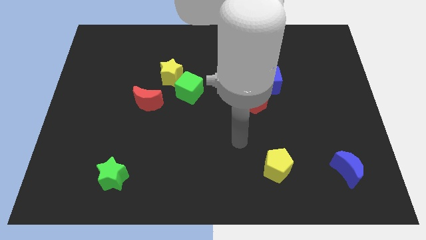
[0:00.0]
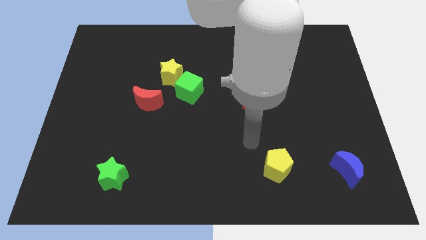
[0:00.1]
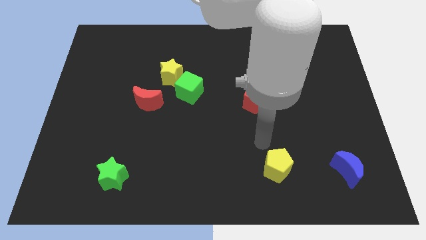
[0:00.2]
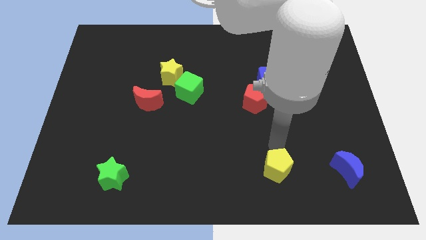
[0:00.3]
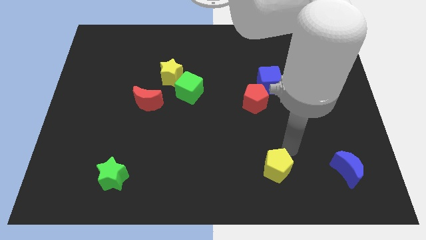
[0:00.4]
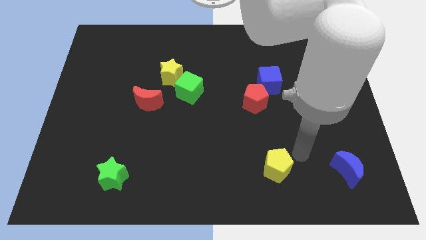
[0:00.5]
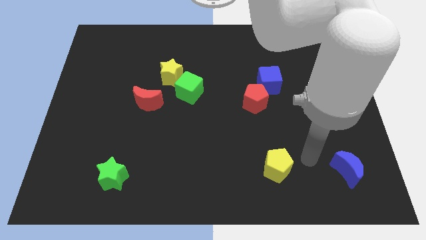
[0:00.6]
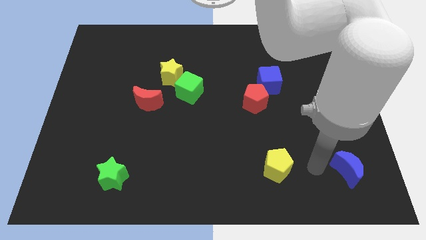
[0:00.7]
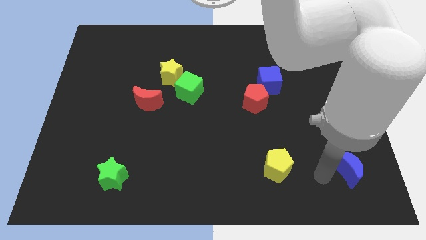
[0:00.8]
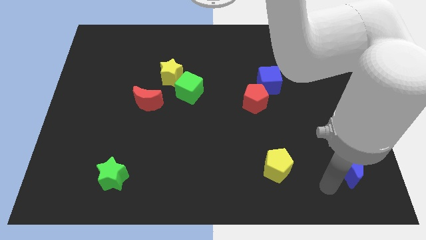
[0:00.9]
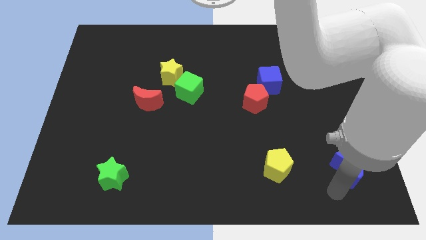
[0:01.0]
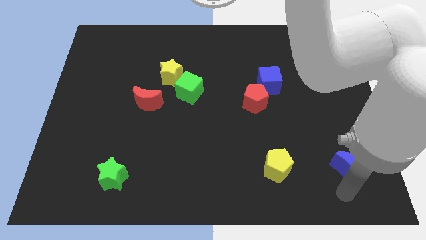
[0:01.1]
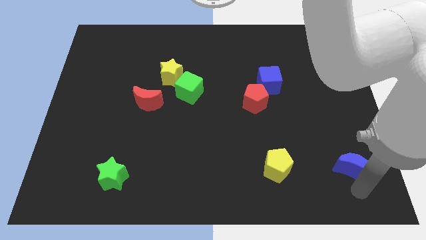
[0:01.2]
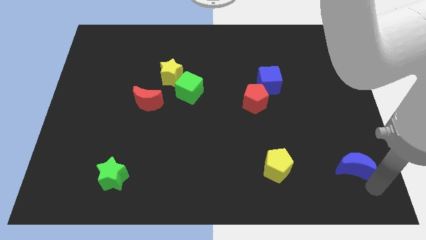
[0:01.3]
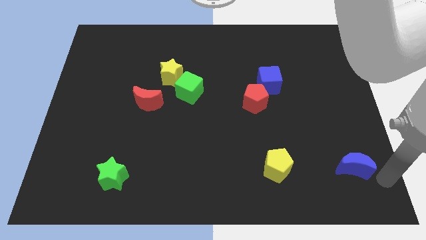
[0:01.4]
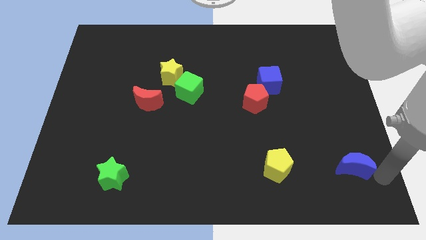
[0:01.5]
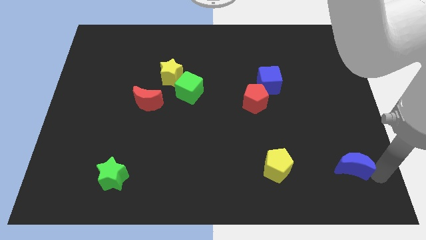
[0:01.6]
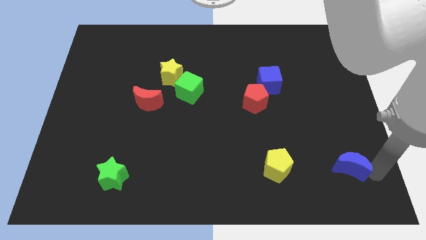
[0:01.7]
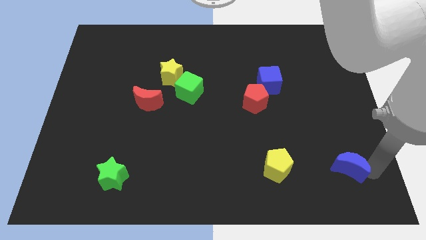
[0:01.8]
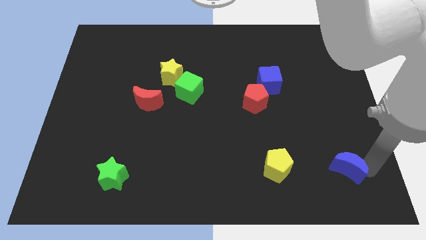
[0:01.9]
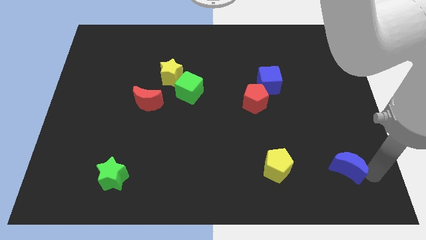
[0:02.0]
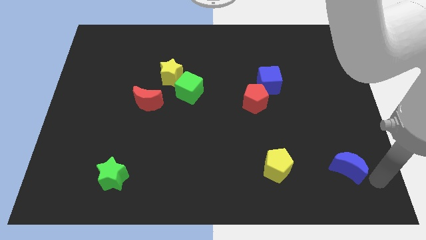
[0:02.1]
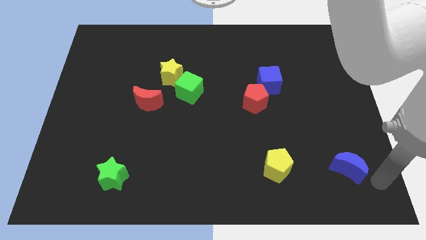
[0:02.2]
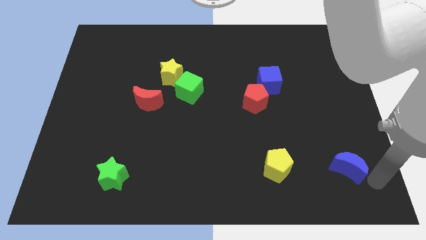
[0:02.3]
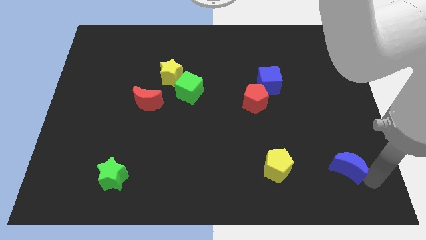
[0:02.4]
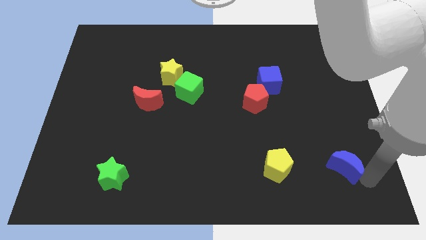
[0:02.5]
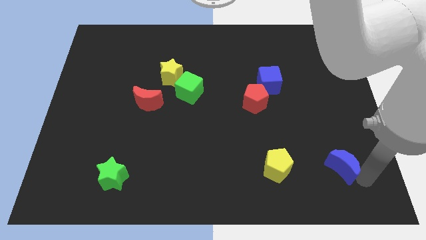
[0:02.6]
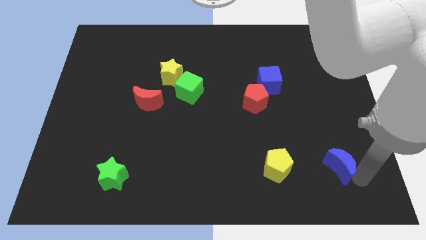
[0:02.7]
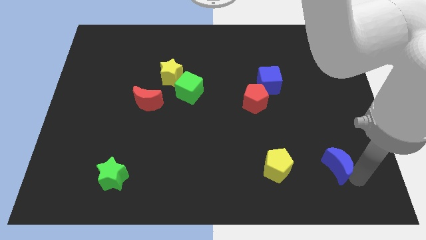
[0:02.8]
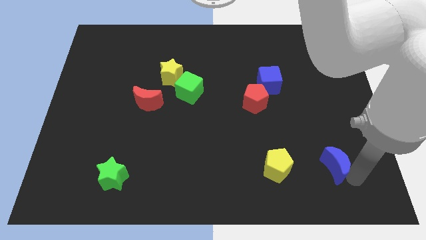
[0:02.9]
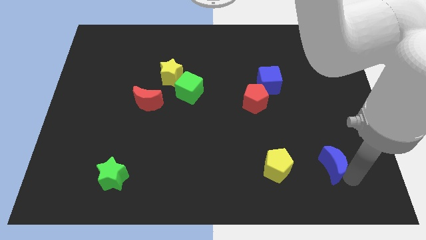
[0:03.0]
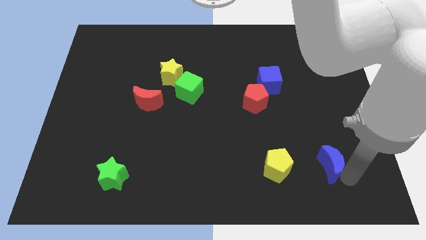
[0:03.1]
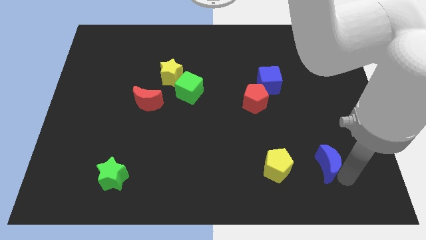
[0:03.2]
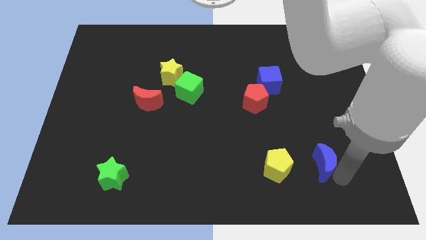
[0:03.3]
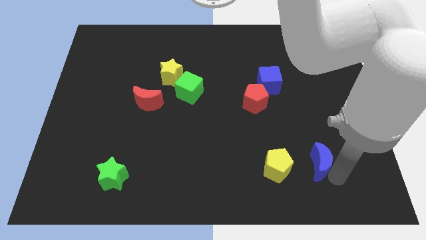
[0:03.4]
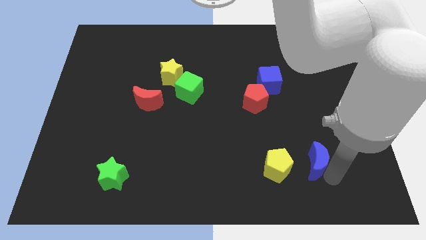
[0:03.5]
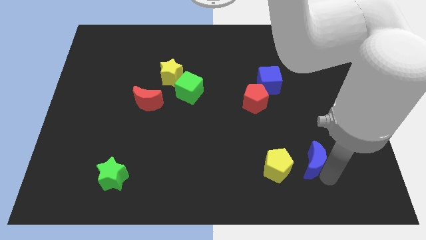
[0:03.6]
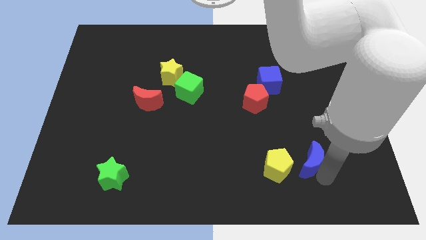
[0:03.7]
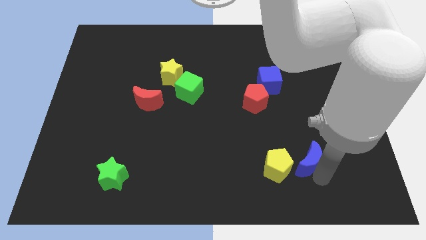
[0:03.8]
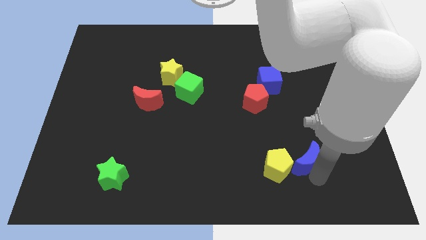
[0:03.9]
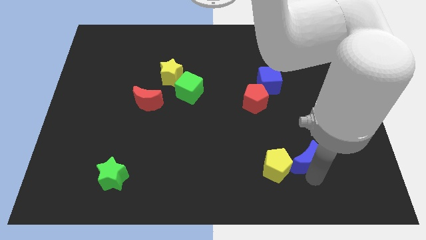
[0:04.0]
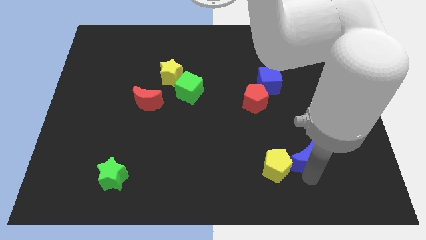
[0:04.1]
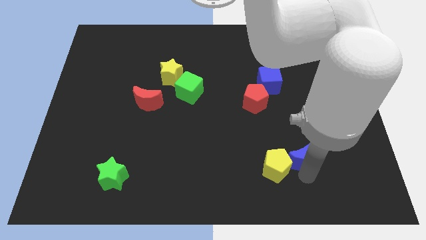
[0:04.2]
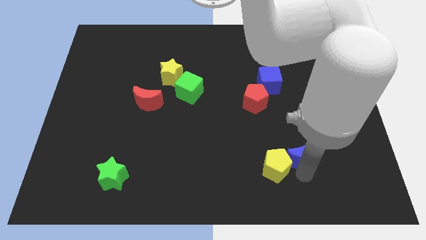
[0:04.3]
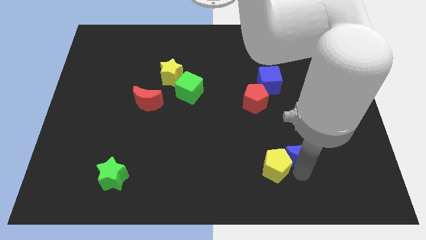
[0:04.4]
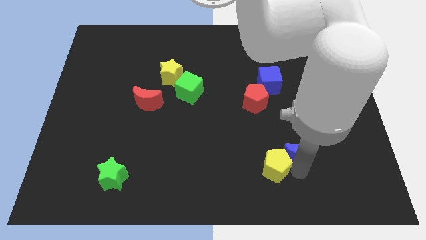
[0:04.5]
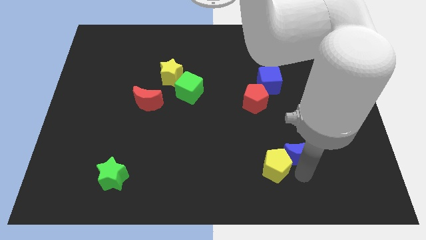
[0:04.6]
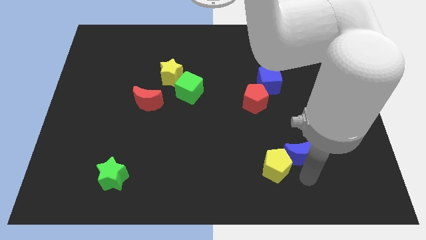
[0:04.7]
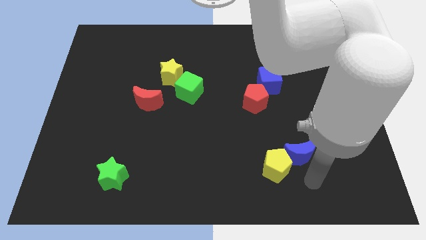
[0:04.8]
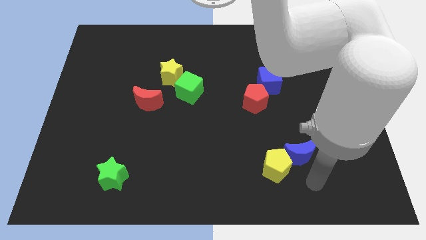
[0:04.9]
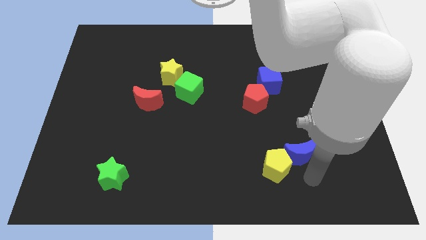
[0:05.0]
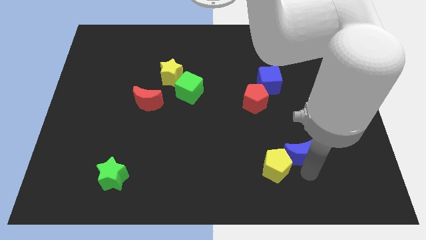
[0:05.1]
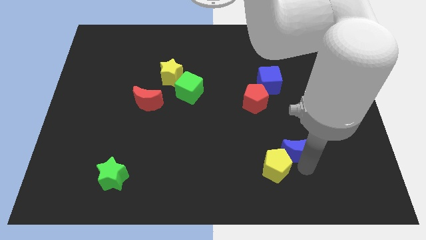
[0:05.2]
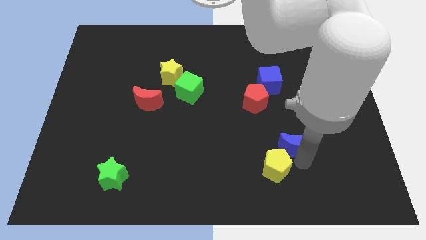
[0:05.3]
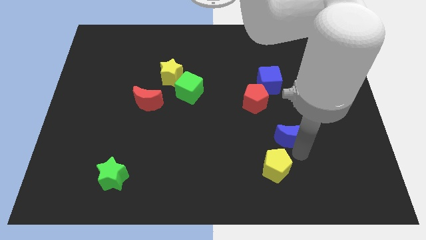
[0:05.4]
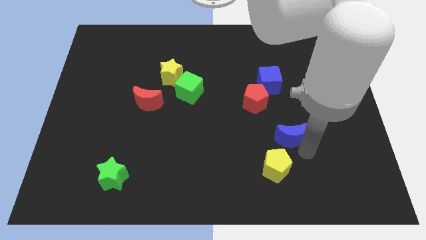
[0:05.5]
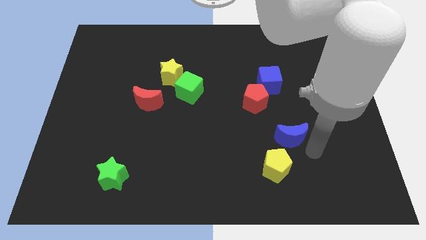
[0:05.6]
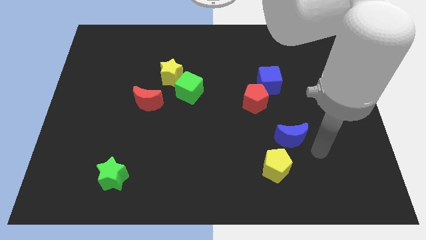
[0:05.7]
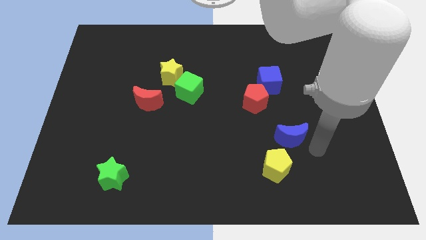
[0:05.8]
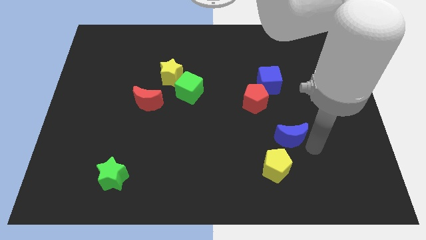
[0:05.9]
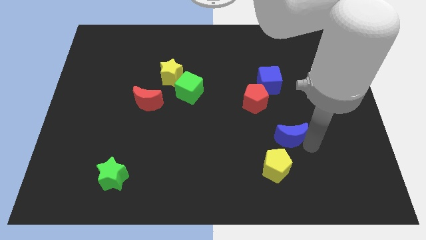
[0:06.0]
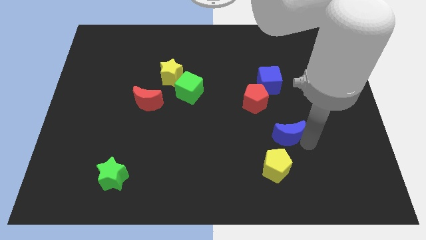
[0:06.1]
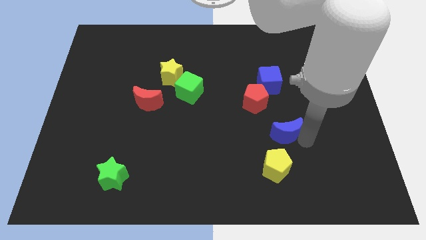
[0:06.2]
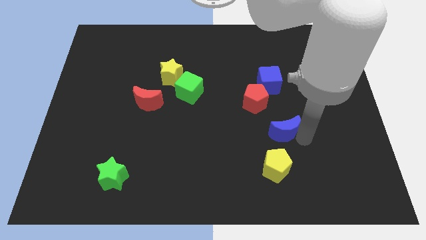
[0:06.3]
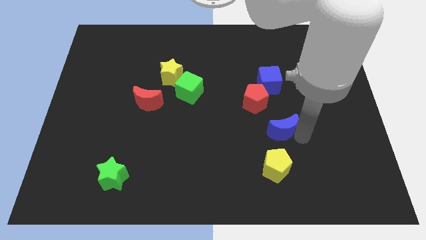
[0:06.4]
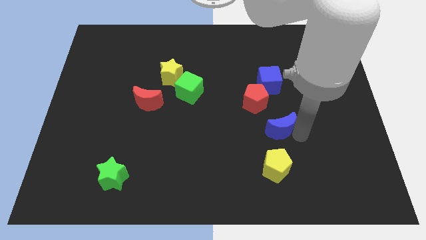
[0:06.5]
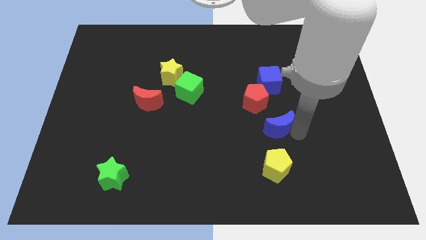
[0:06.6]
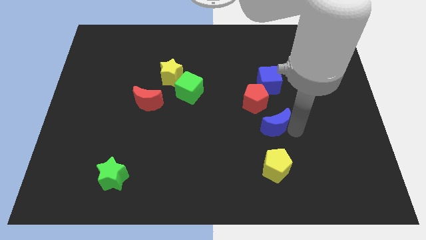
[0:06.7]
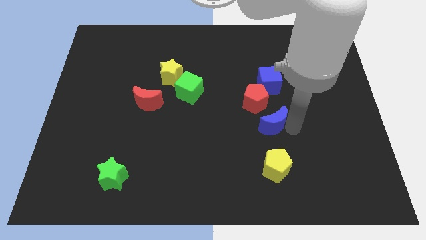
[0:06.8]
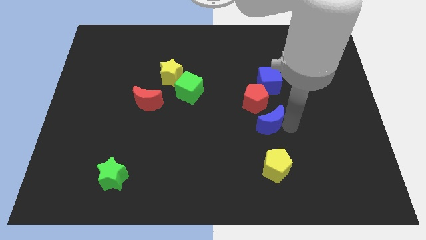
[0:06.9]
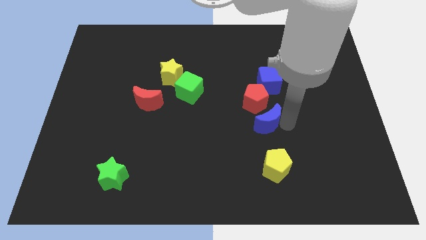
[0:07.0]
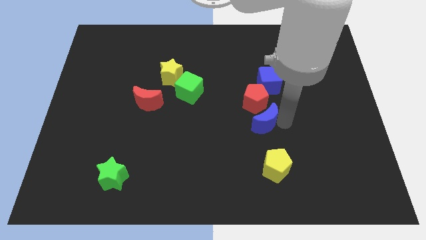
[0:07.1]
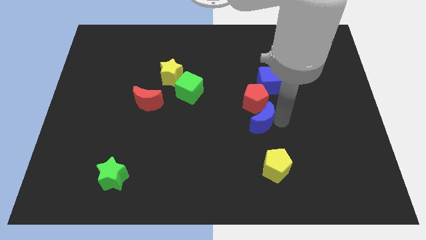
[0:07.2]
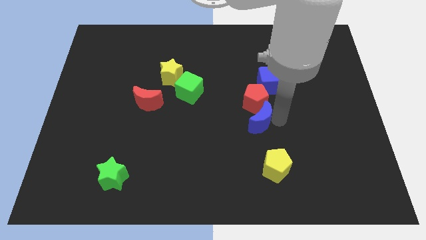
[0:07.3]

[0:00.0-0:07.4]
push the blue moon to the middle of the board
